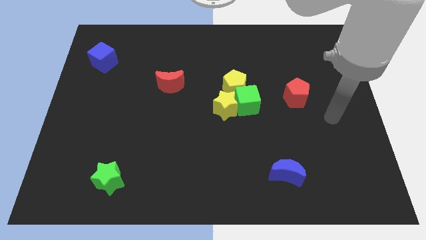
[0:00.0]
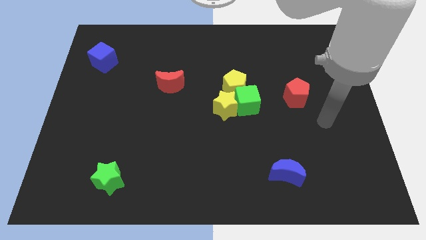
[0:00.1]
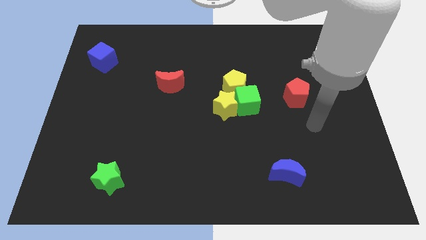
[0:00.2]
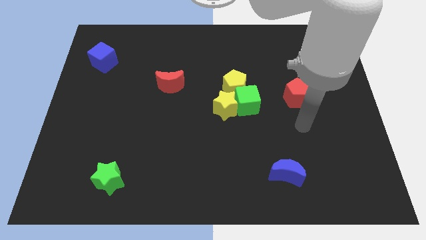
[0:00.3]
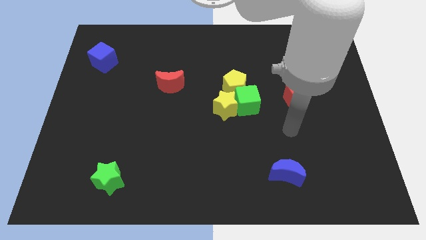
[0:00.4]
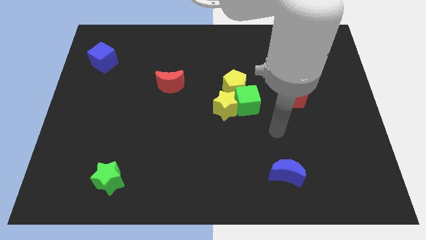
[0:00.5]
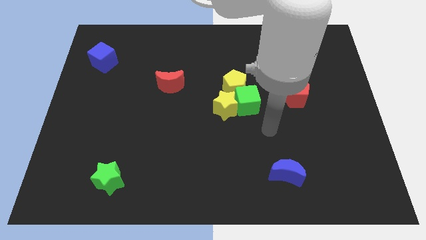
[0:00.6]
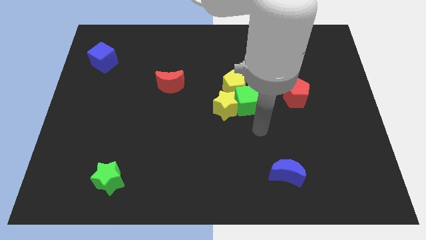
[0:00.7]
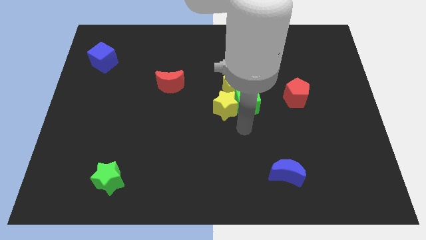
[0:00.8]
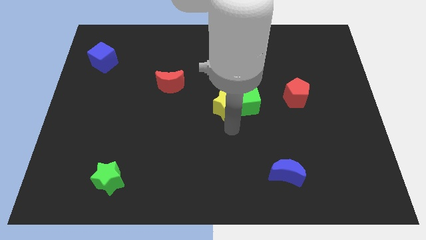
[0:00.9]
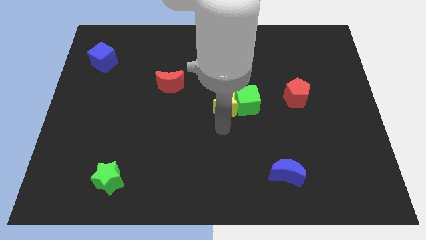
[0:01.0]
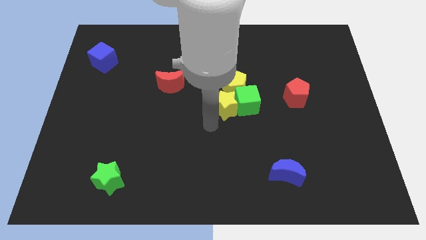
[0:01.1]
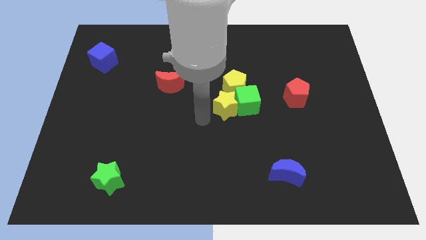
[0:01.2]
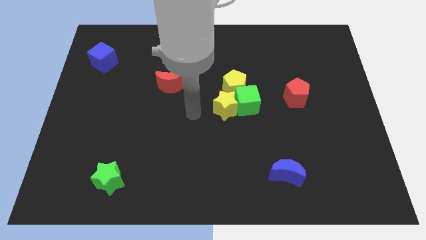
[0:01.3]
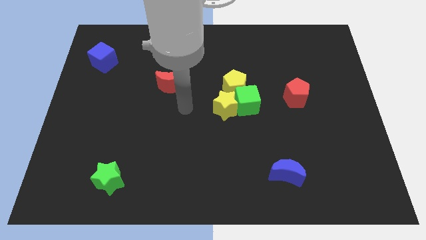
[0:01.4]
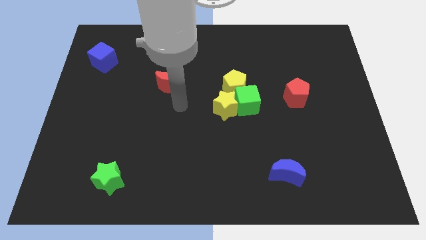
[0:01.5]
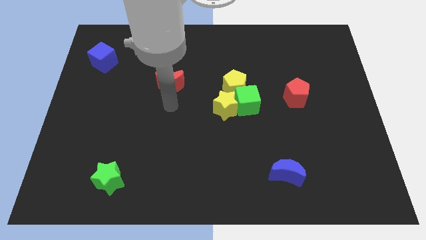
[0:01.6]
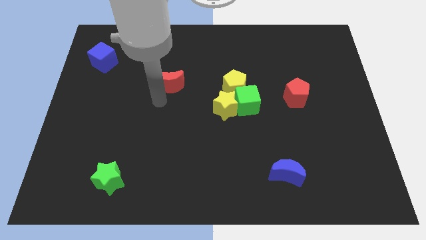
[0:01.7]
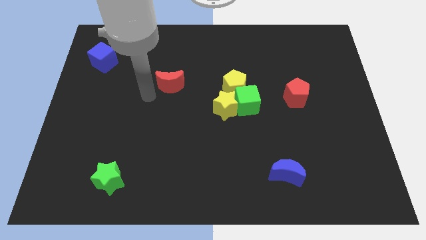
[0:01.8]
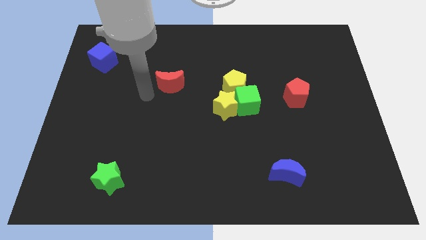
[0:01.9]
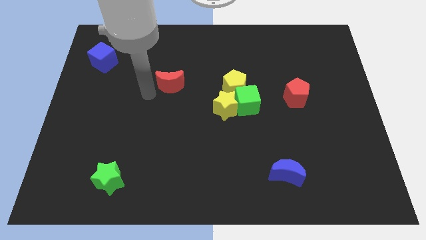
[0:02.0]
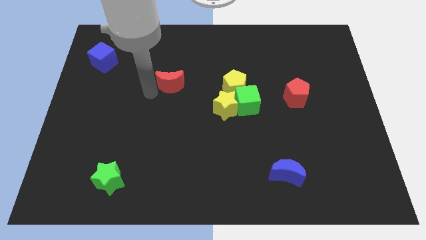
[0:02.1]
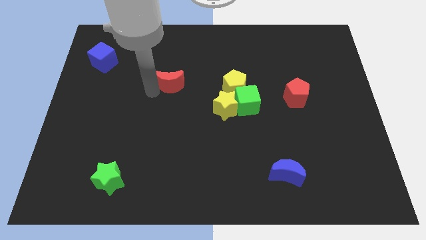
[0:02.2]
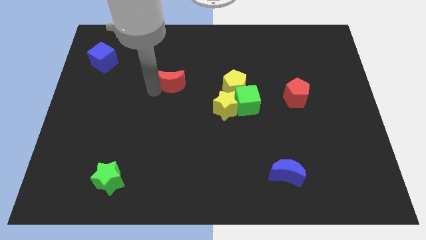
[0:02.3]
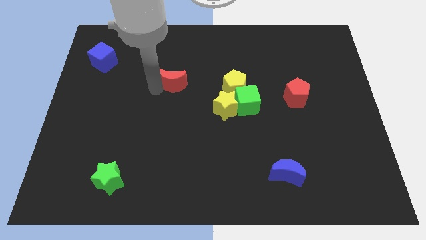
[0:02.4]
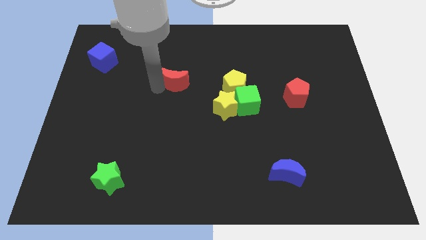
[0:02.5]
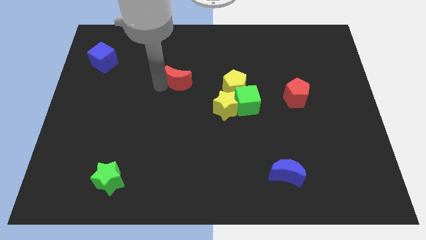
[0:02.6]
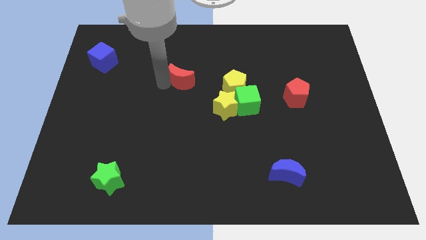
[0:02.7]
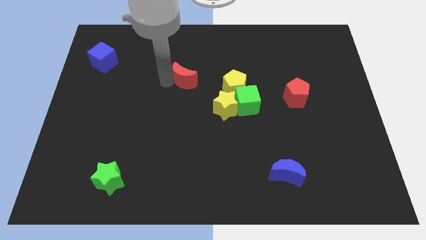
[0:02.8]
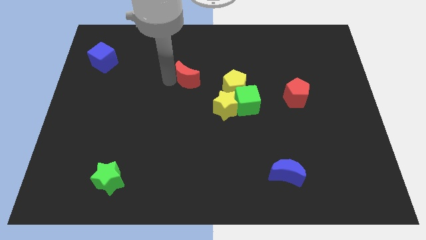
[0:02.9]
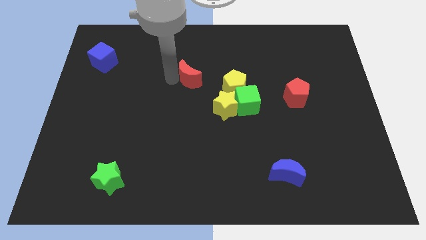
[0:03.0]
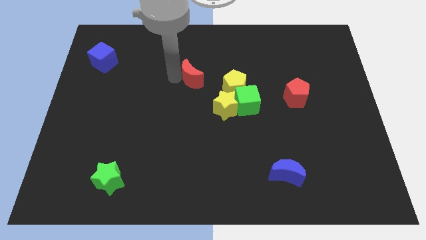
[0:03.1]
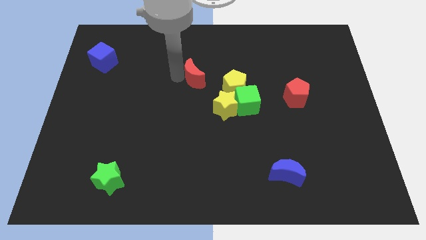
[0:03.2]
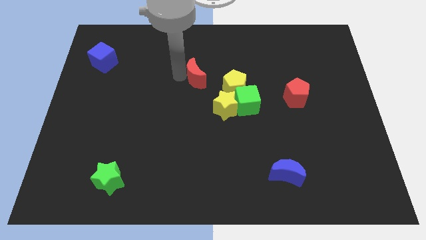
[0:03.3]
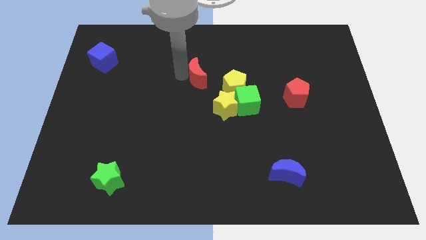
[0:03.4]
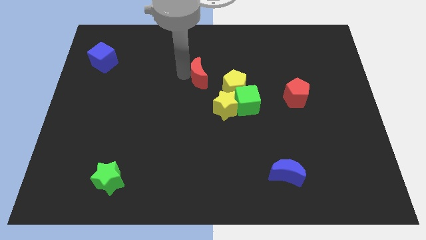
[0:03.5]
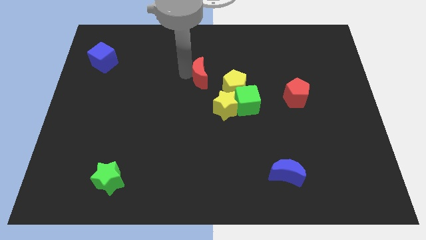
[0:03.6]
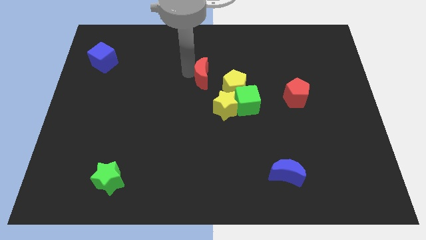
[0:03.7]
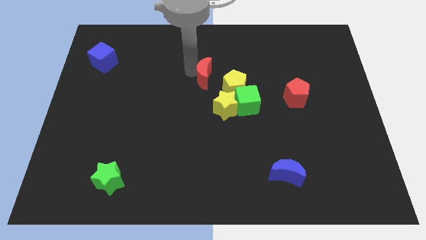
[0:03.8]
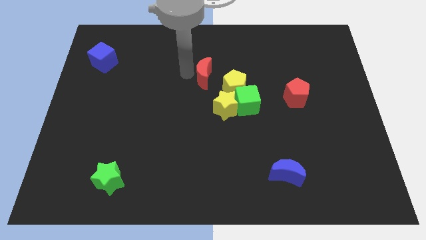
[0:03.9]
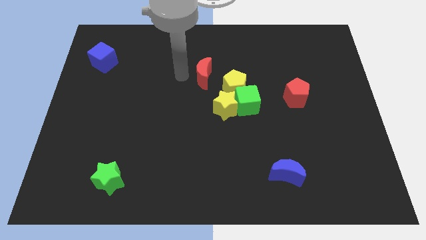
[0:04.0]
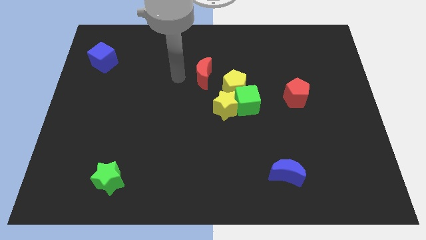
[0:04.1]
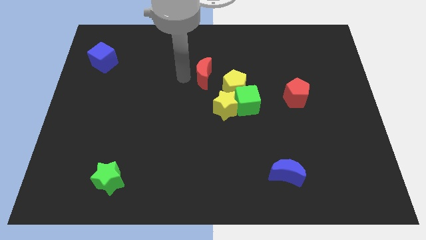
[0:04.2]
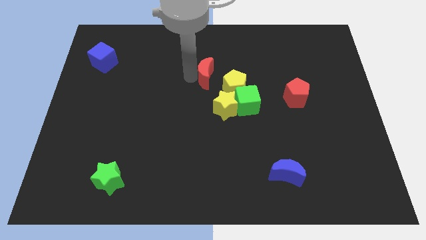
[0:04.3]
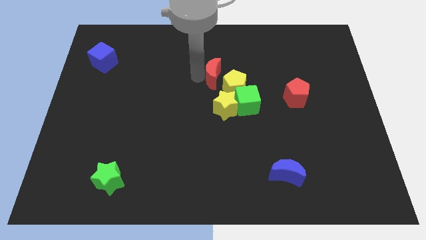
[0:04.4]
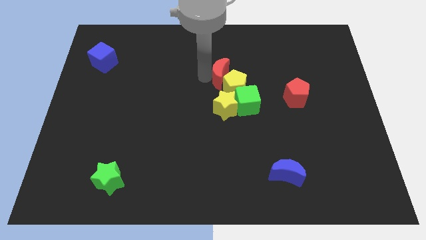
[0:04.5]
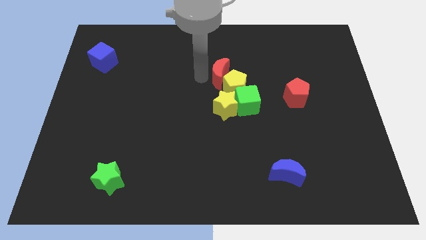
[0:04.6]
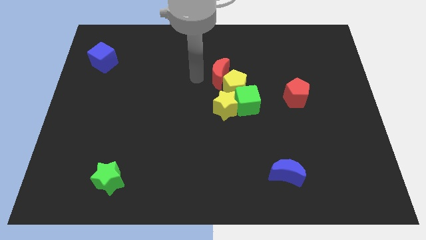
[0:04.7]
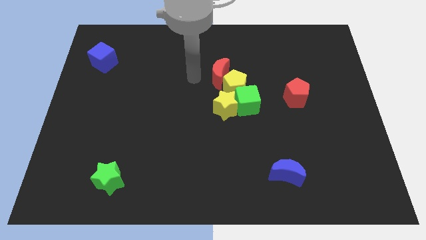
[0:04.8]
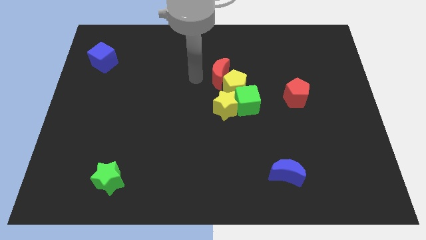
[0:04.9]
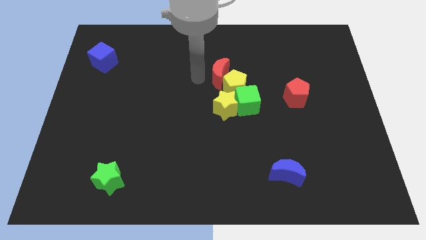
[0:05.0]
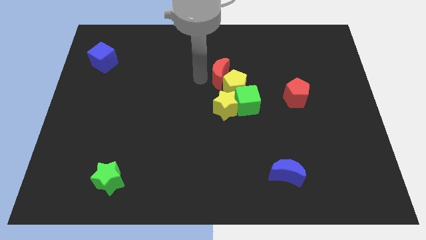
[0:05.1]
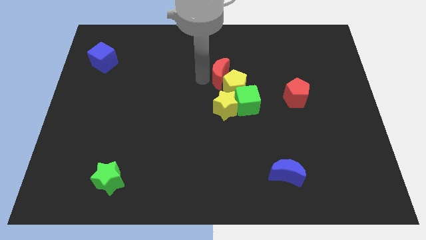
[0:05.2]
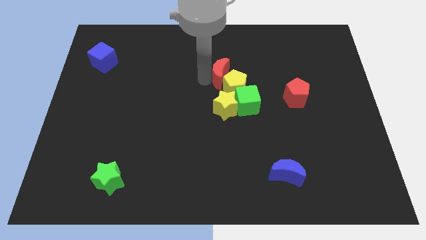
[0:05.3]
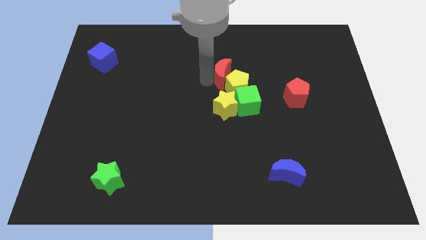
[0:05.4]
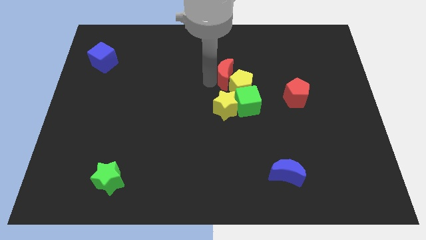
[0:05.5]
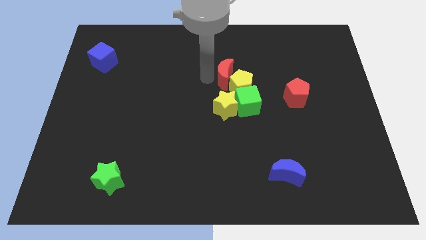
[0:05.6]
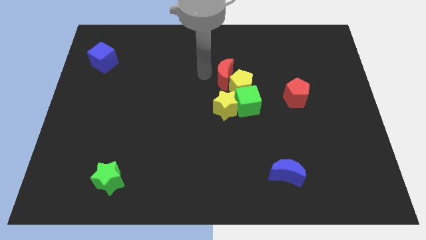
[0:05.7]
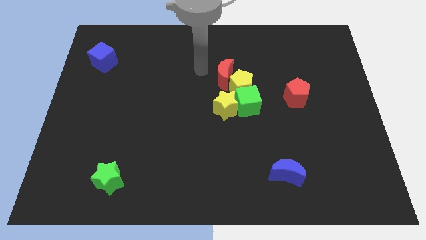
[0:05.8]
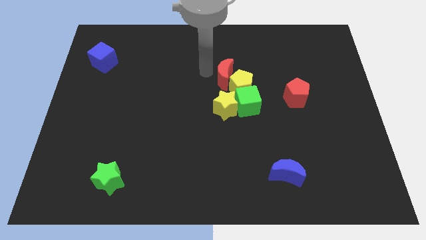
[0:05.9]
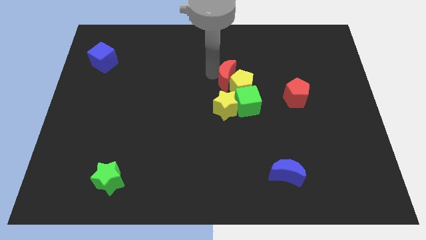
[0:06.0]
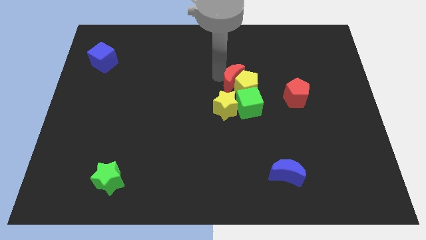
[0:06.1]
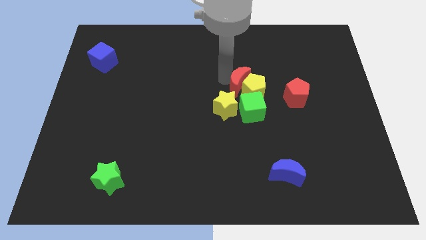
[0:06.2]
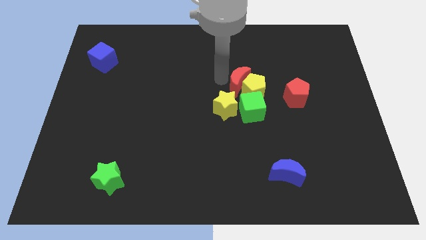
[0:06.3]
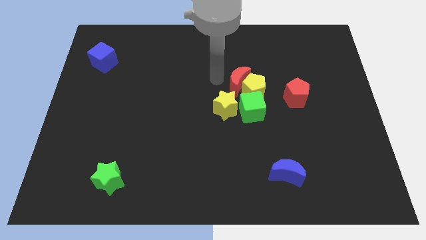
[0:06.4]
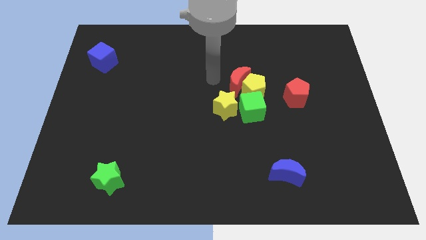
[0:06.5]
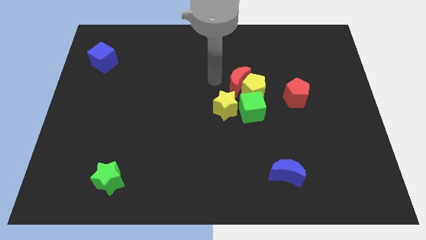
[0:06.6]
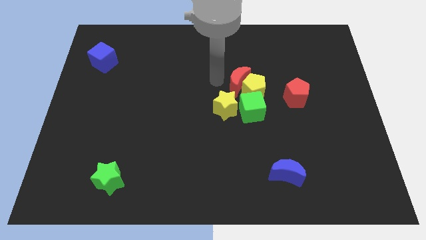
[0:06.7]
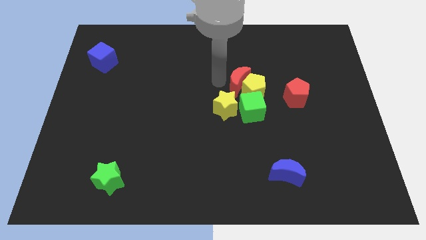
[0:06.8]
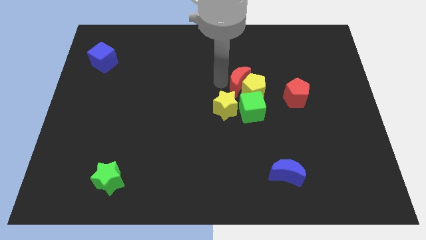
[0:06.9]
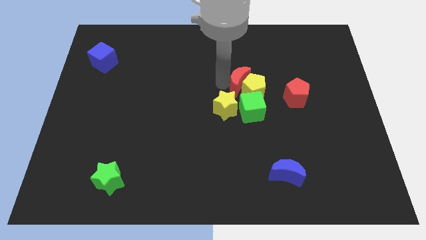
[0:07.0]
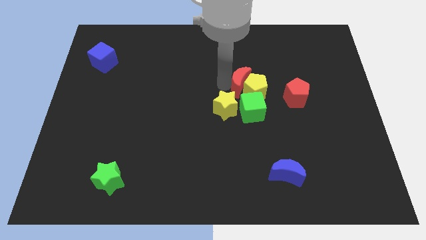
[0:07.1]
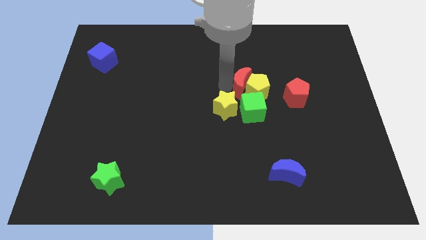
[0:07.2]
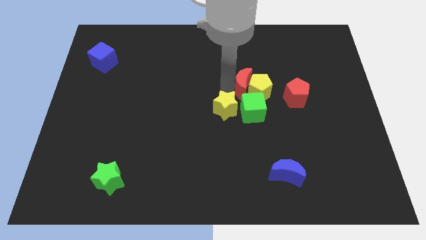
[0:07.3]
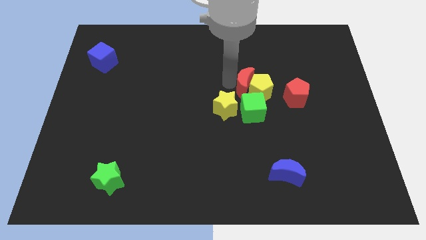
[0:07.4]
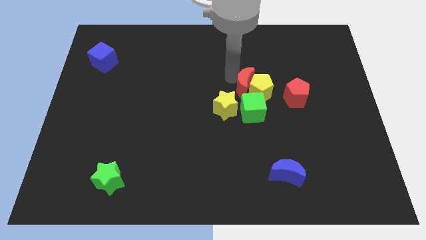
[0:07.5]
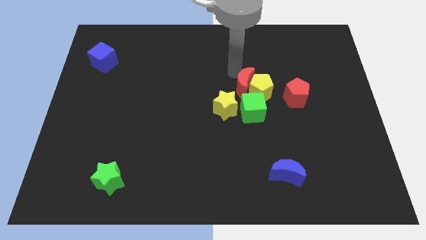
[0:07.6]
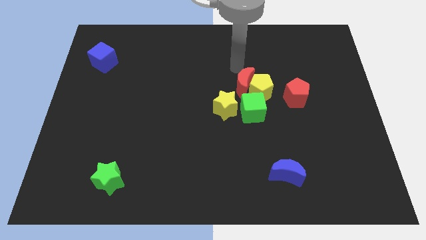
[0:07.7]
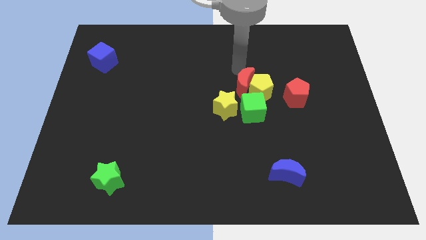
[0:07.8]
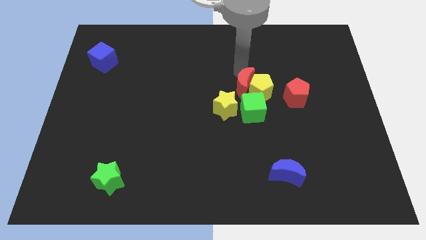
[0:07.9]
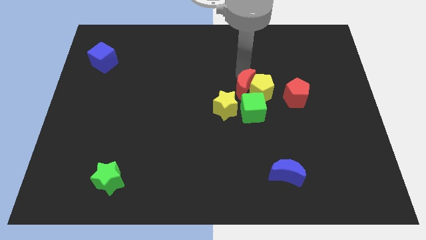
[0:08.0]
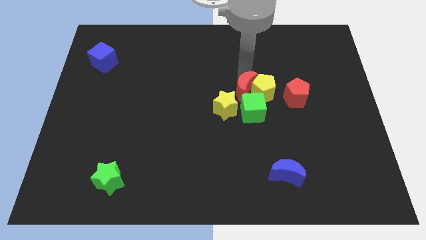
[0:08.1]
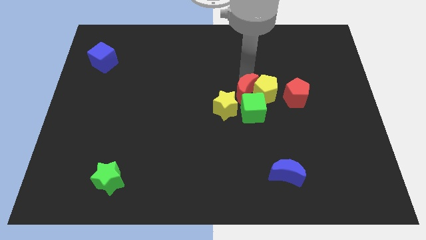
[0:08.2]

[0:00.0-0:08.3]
push the red moon towards the green cube
